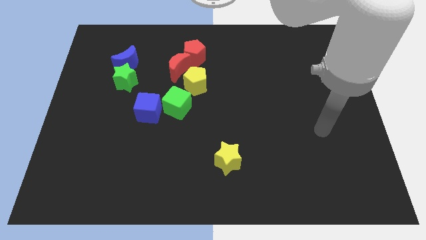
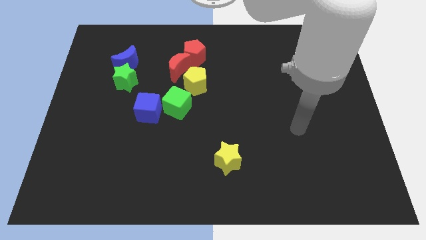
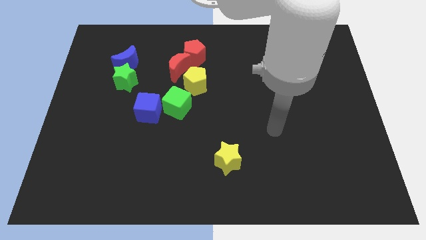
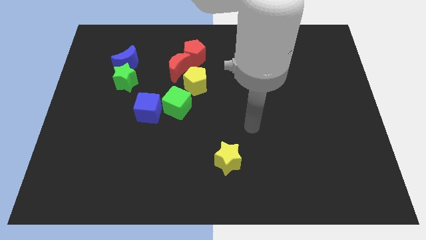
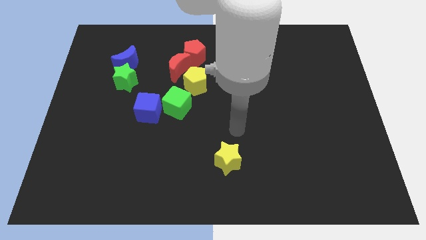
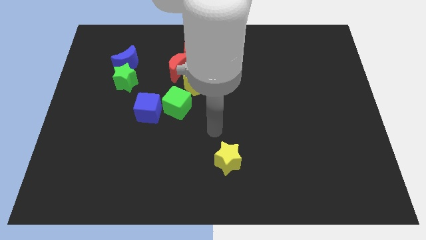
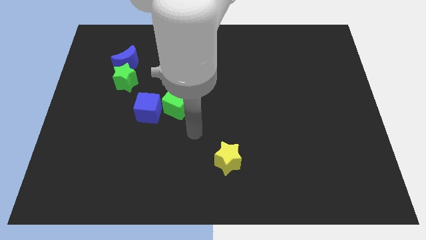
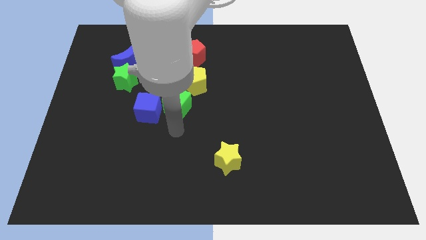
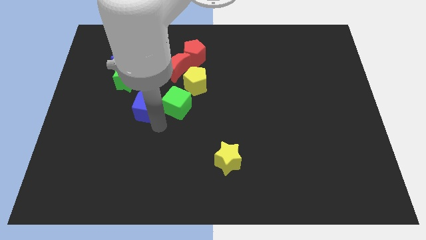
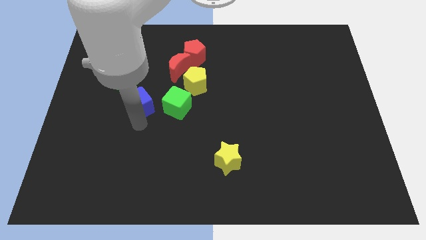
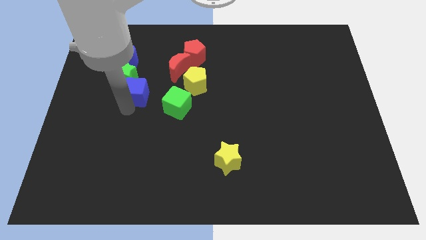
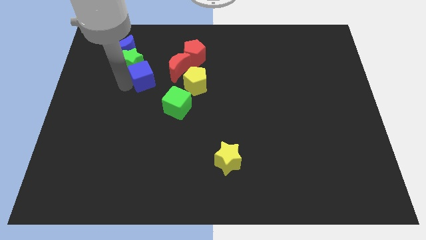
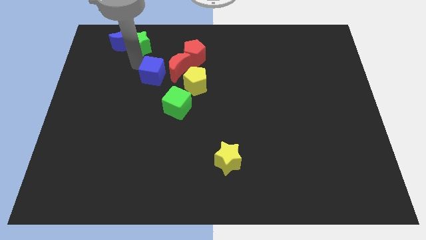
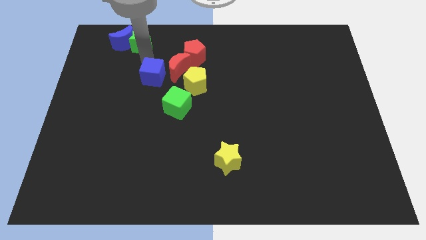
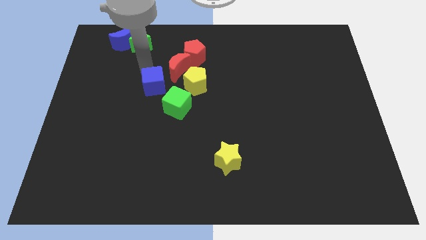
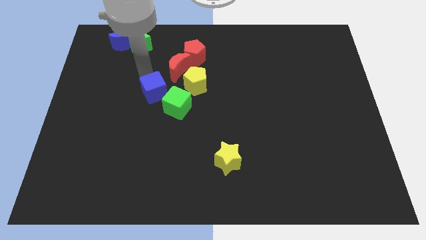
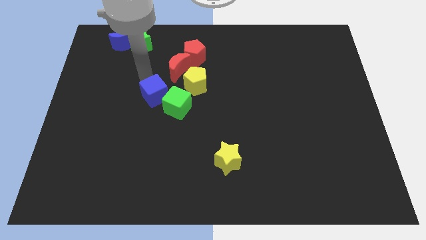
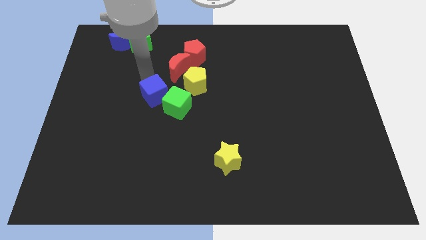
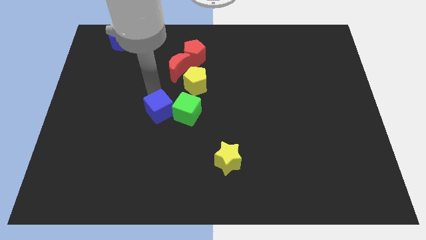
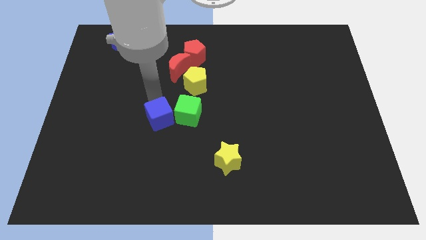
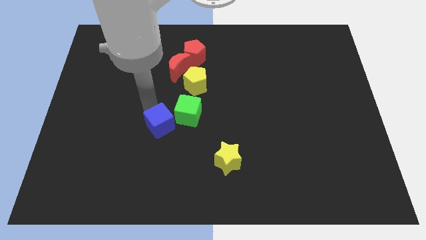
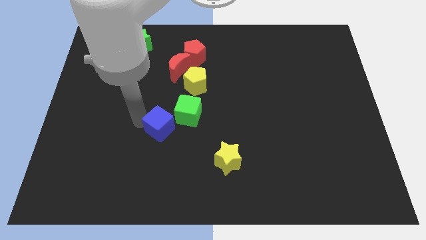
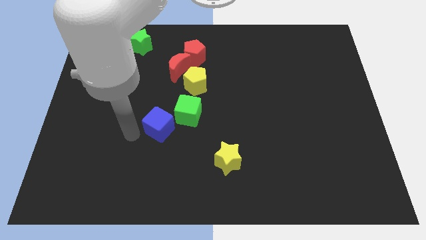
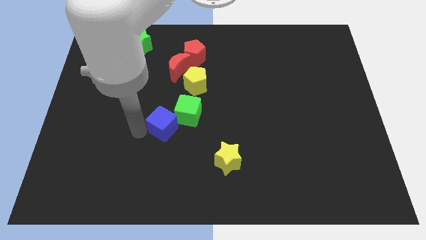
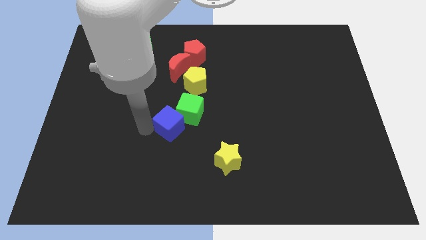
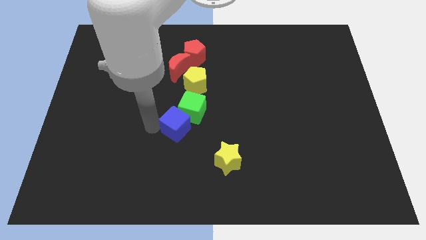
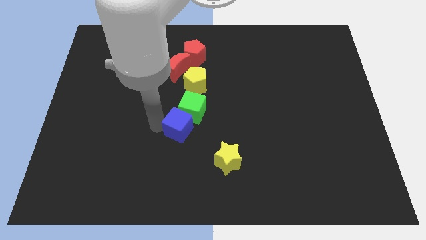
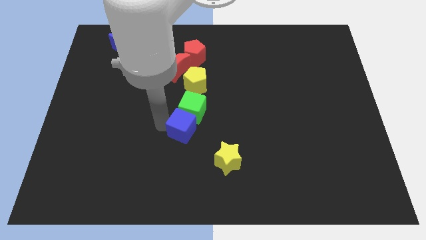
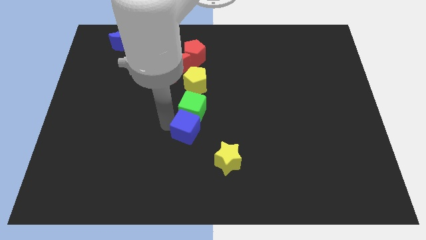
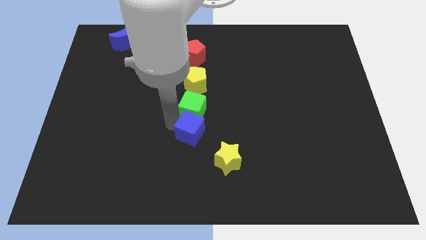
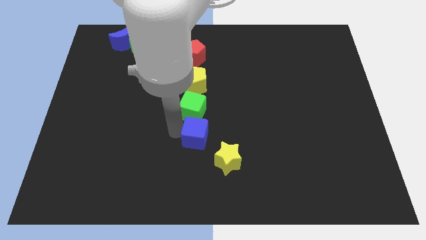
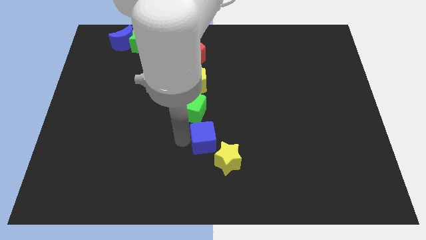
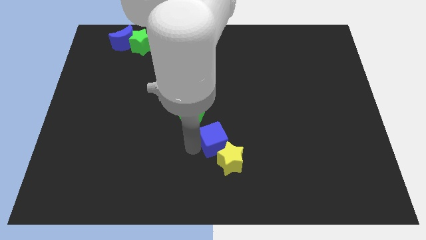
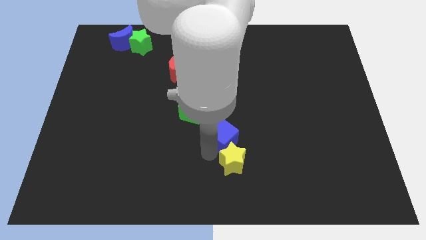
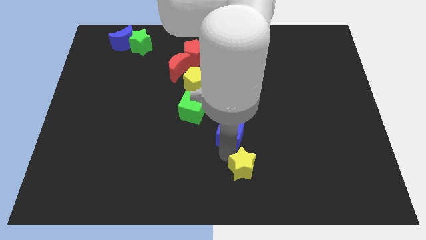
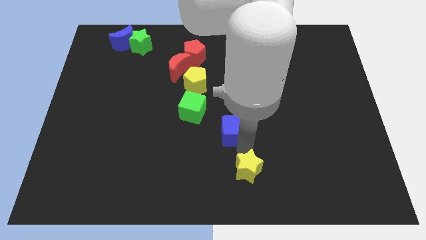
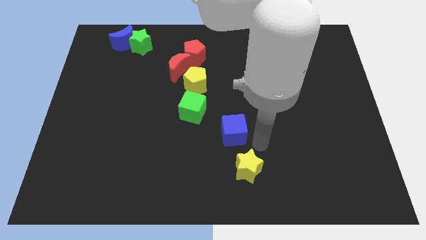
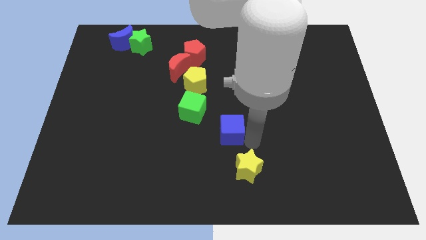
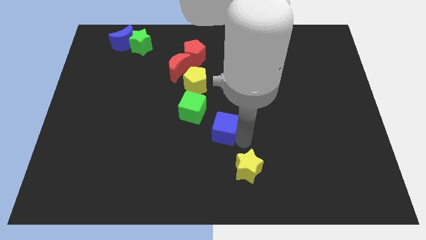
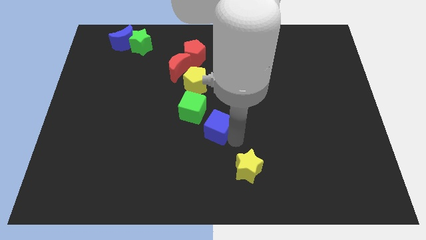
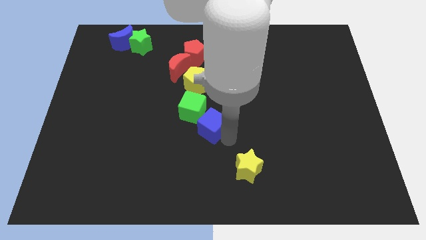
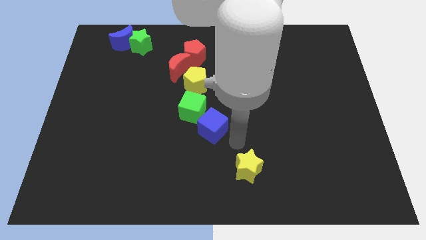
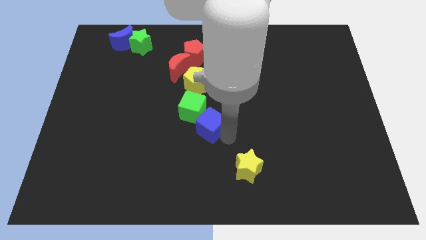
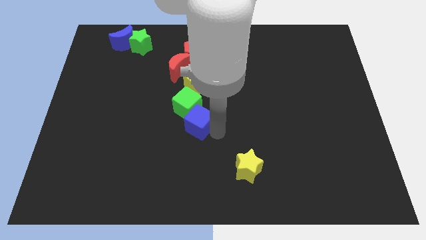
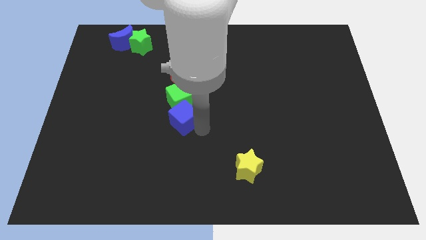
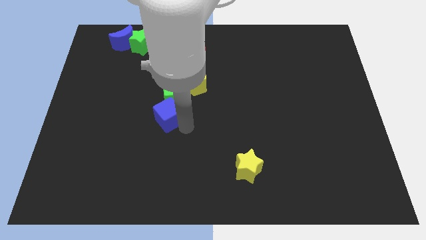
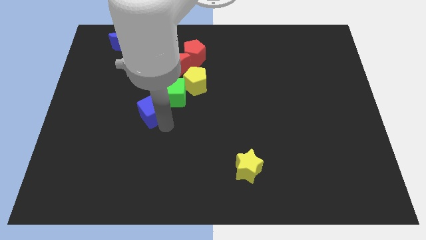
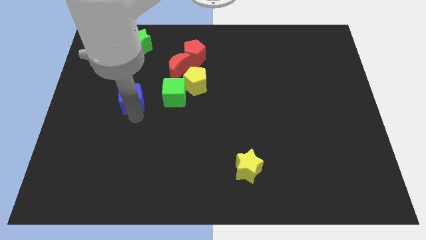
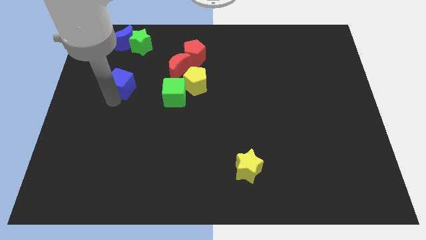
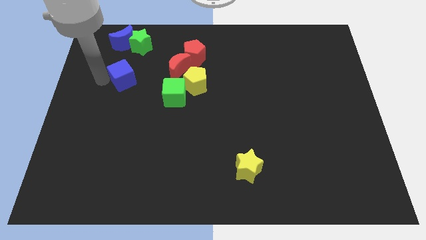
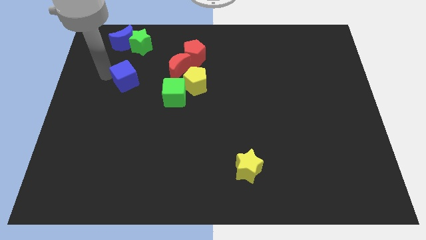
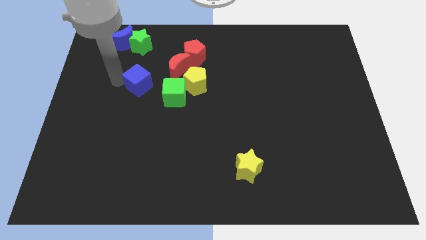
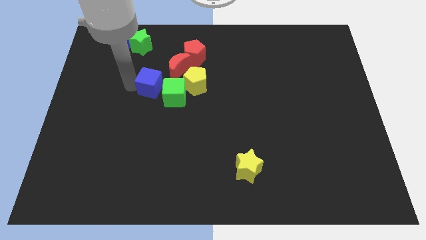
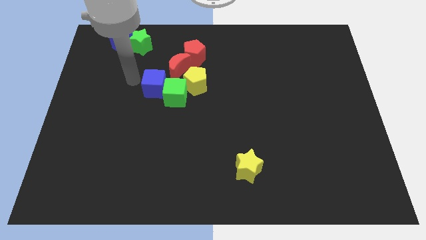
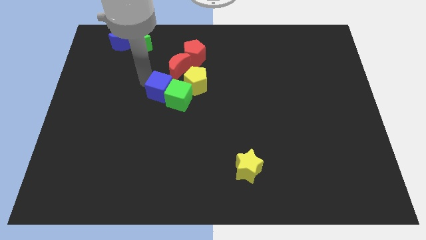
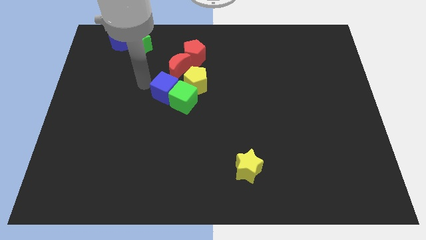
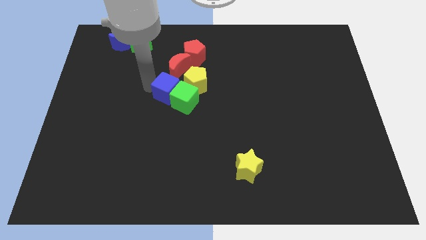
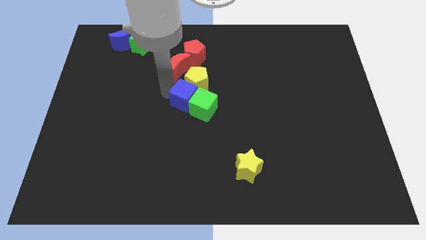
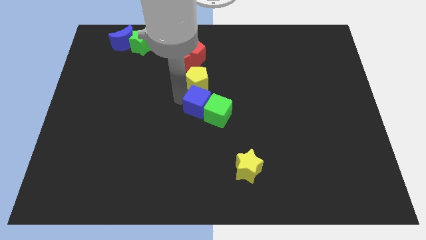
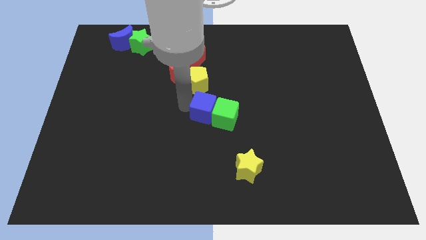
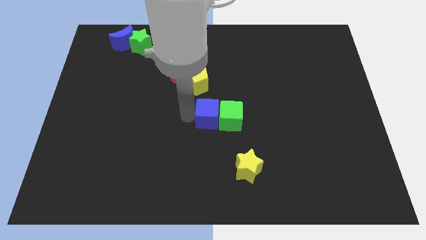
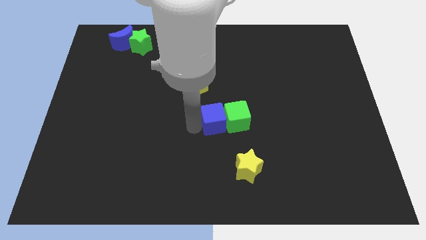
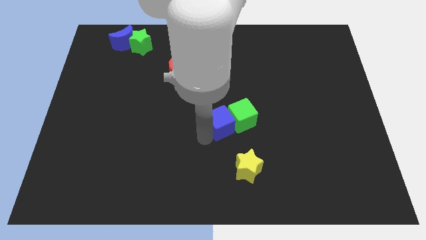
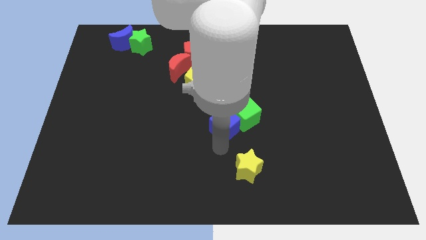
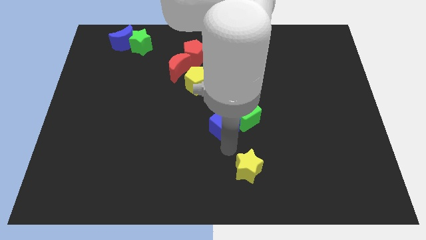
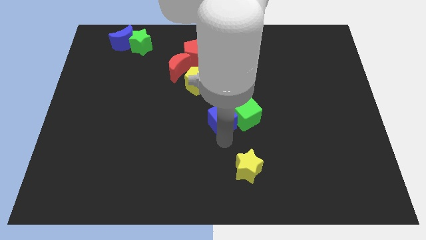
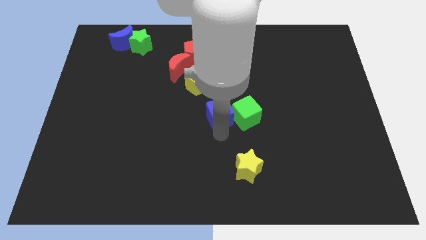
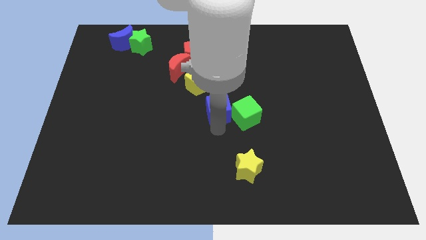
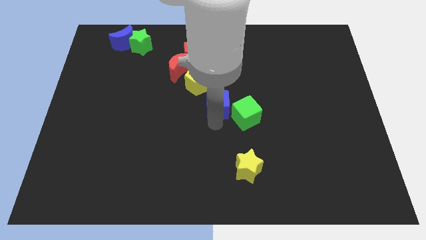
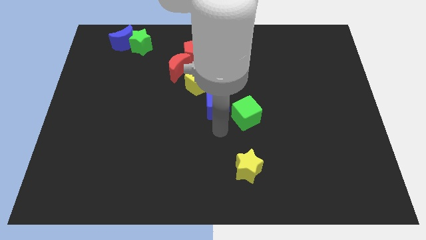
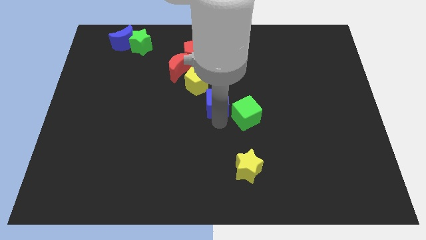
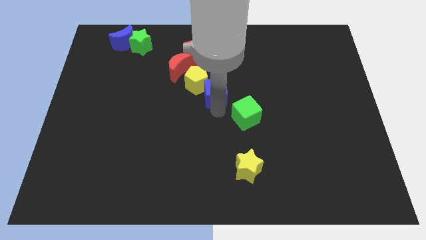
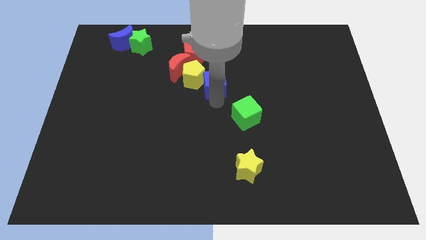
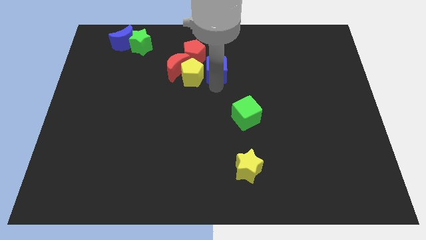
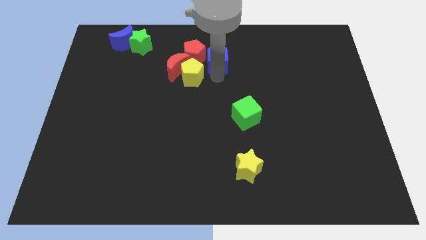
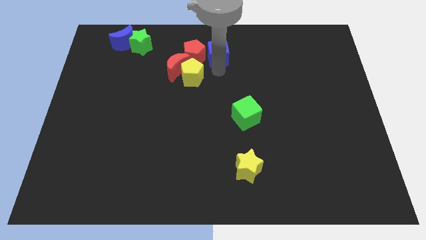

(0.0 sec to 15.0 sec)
push the blue cube to the towards your base
